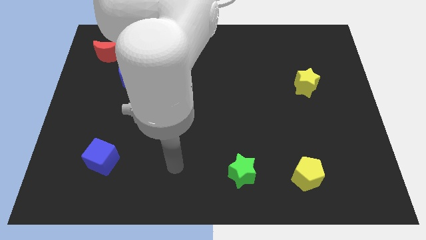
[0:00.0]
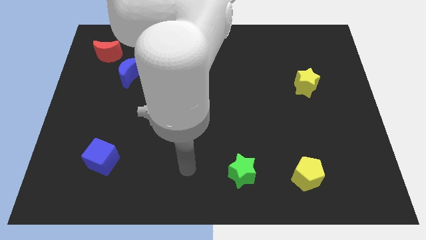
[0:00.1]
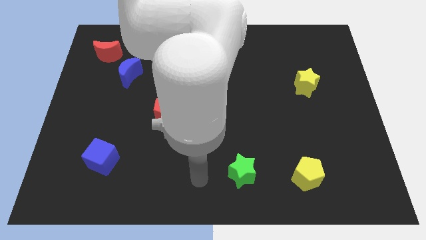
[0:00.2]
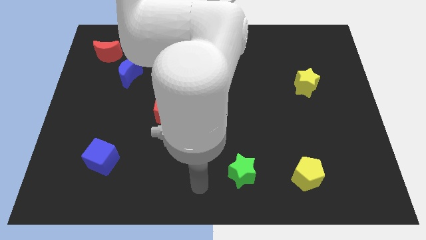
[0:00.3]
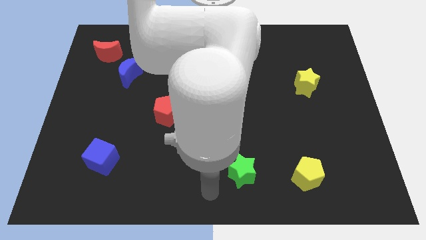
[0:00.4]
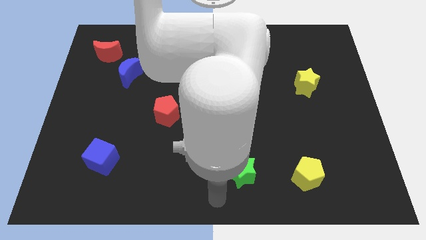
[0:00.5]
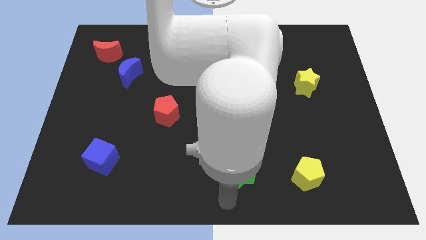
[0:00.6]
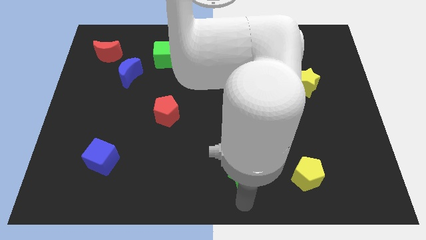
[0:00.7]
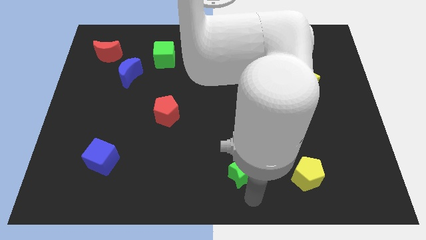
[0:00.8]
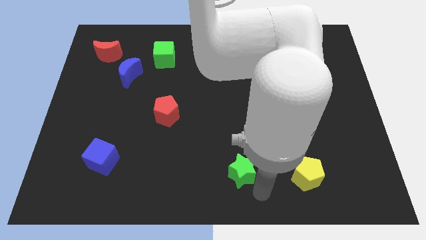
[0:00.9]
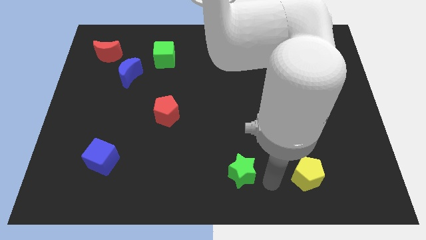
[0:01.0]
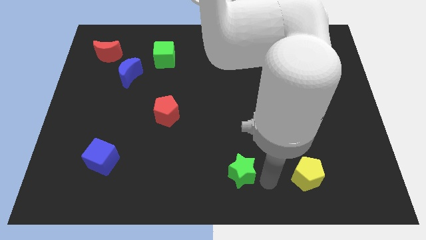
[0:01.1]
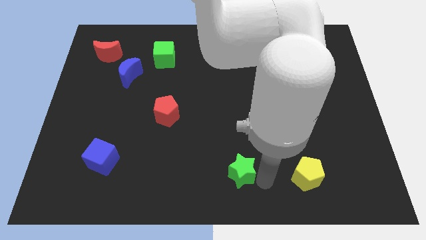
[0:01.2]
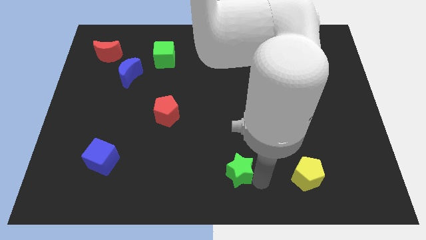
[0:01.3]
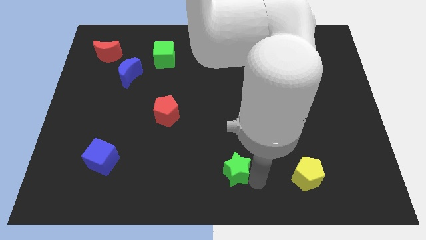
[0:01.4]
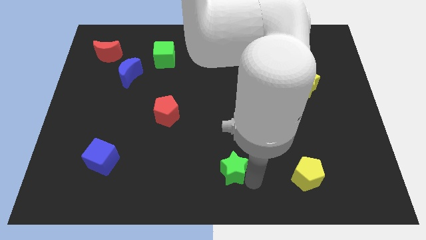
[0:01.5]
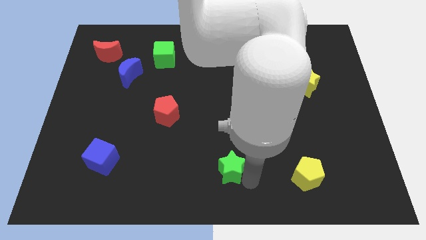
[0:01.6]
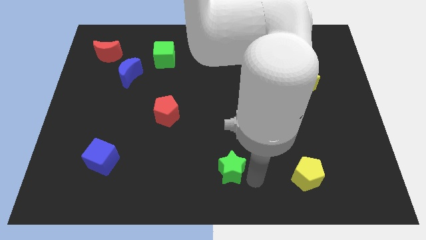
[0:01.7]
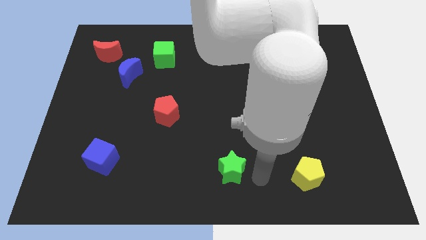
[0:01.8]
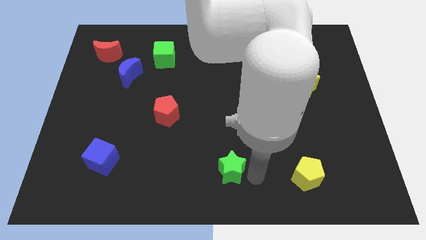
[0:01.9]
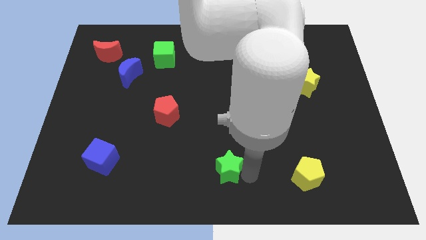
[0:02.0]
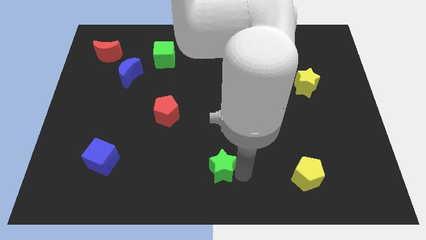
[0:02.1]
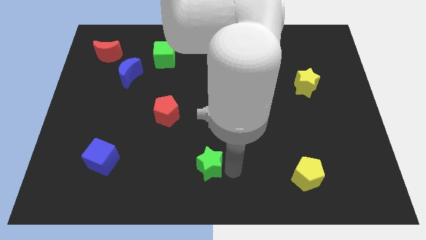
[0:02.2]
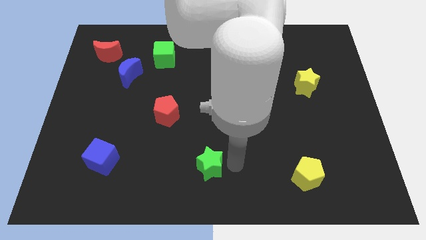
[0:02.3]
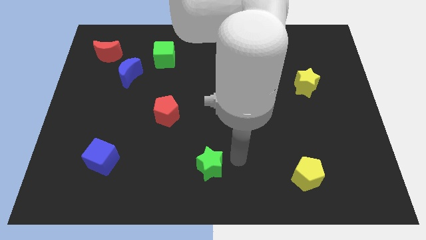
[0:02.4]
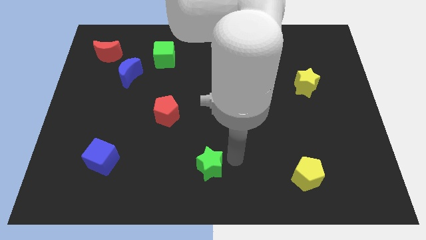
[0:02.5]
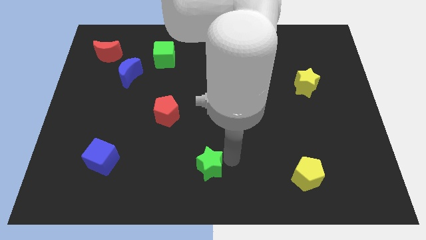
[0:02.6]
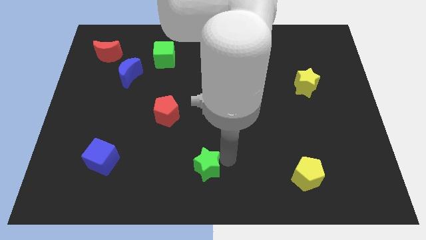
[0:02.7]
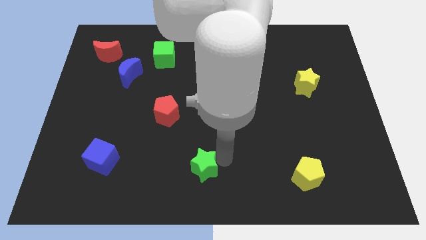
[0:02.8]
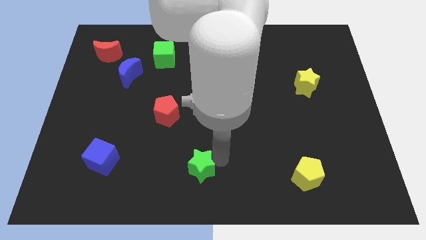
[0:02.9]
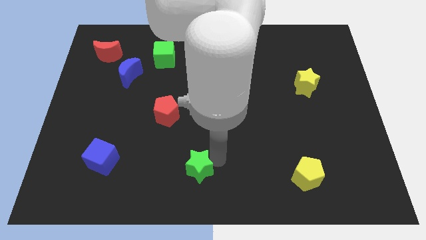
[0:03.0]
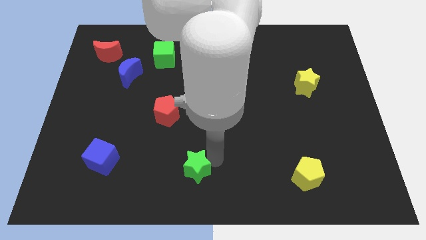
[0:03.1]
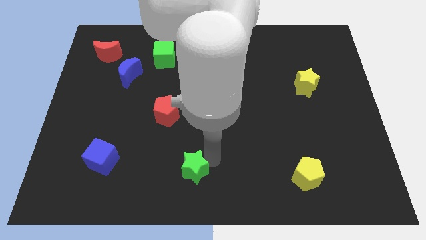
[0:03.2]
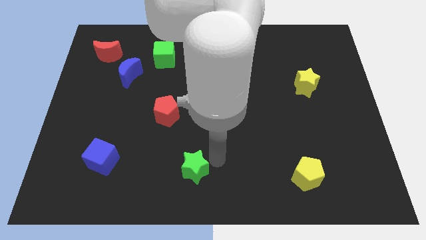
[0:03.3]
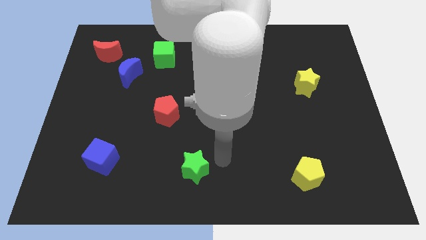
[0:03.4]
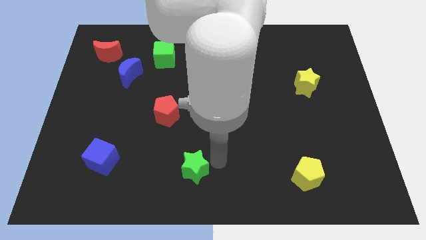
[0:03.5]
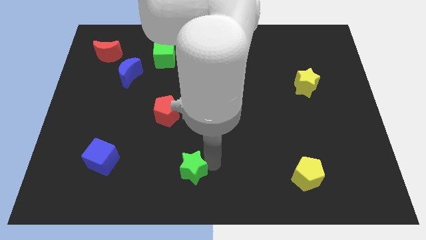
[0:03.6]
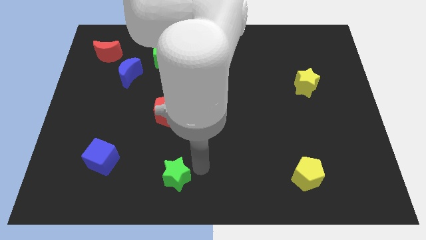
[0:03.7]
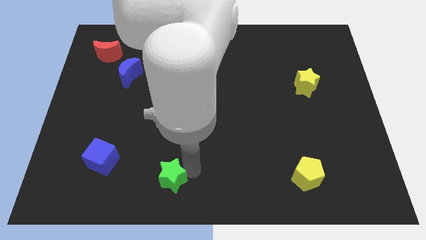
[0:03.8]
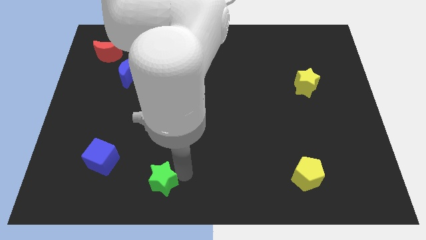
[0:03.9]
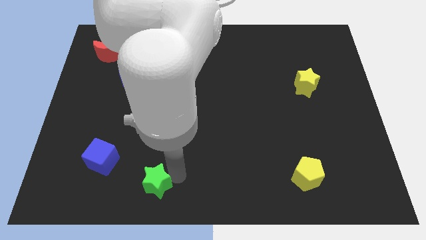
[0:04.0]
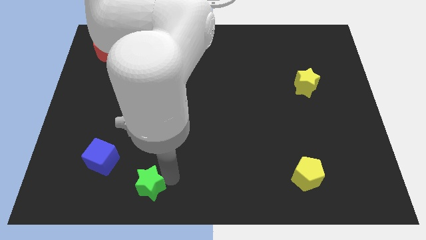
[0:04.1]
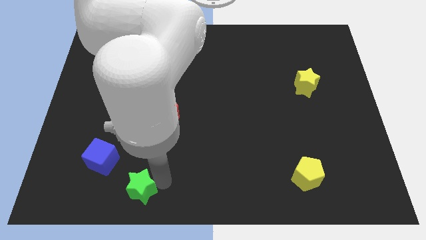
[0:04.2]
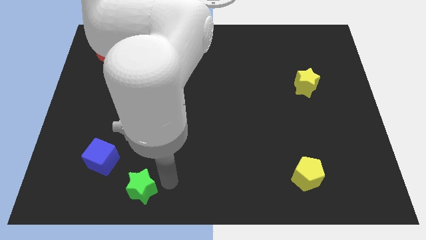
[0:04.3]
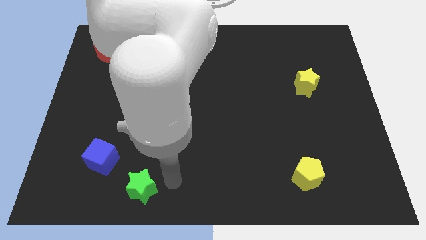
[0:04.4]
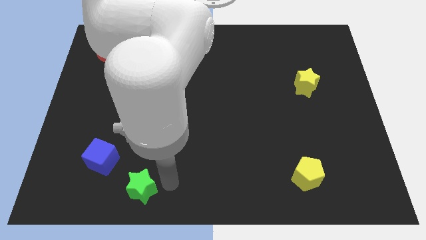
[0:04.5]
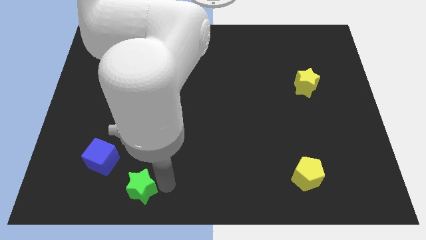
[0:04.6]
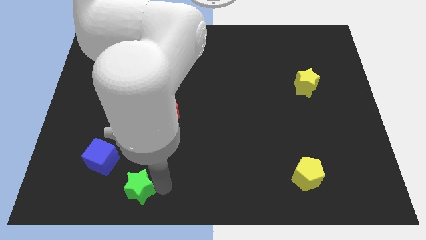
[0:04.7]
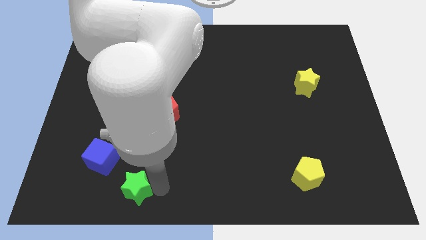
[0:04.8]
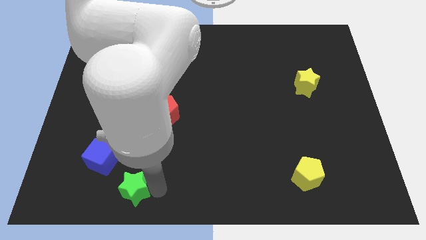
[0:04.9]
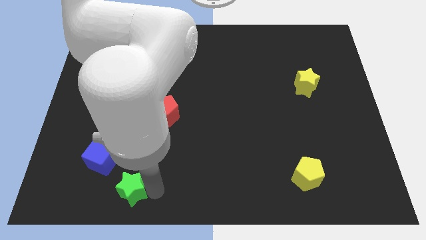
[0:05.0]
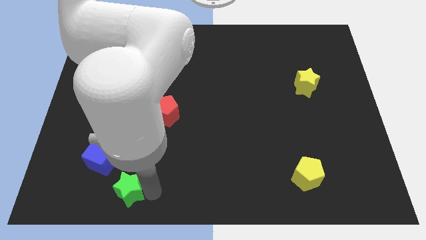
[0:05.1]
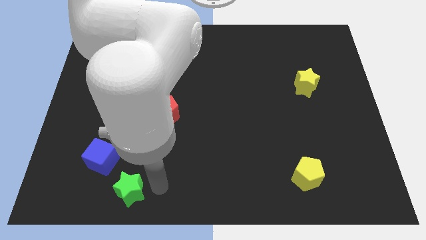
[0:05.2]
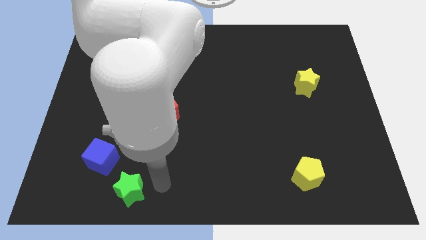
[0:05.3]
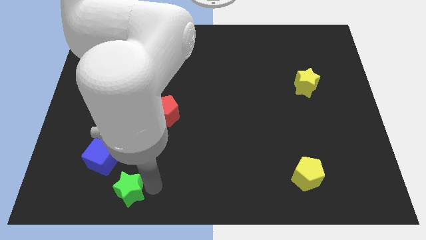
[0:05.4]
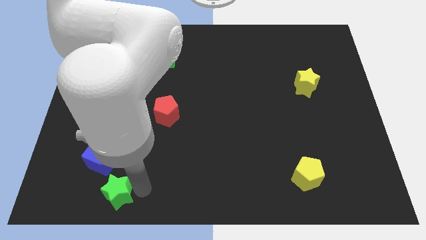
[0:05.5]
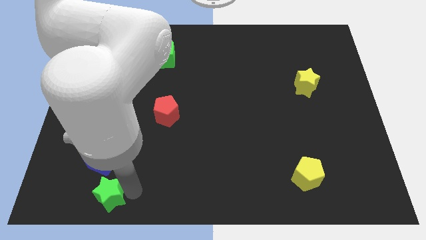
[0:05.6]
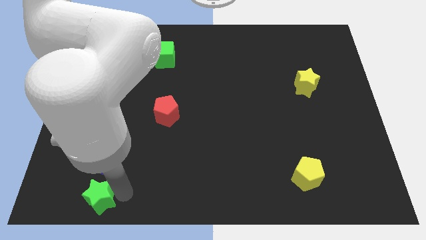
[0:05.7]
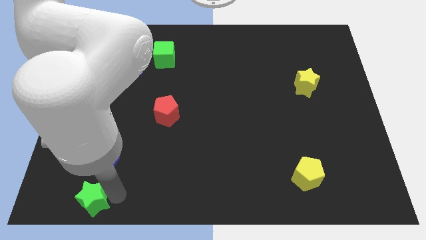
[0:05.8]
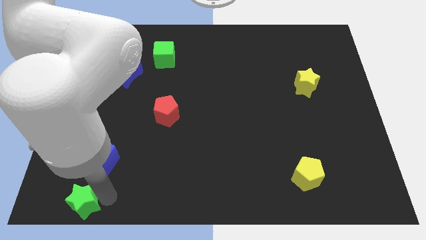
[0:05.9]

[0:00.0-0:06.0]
slide the green star to the lower left corner

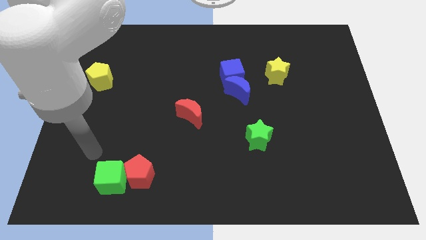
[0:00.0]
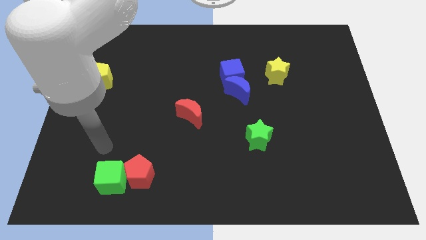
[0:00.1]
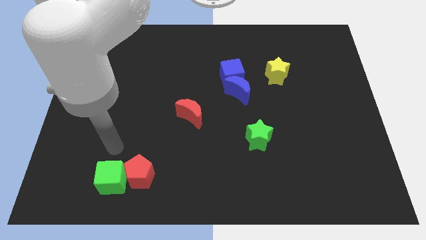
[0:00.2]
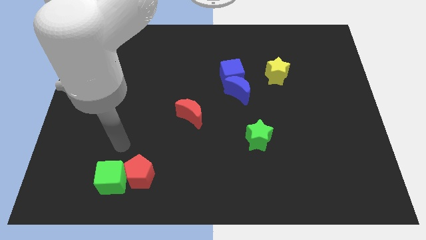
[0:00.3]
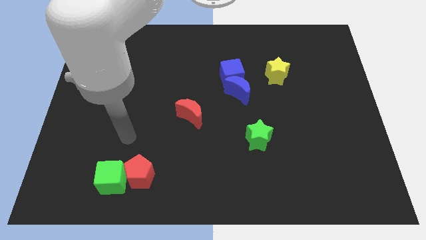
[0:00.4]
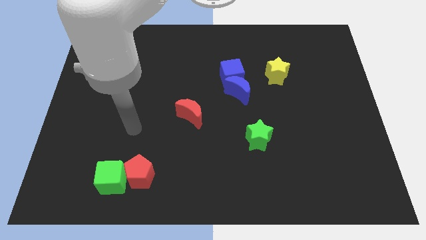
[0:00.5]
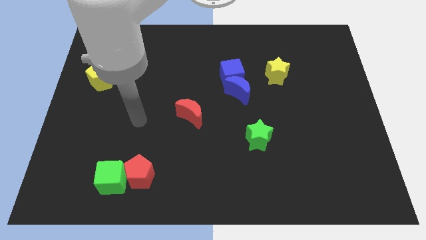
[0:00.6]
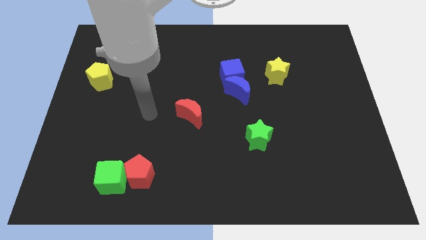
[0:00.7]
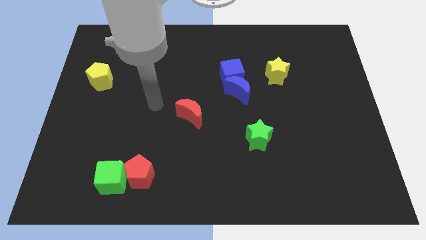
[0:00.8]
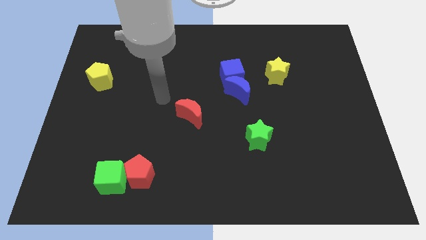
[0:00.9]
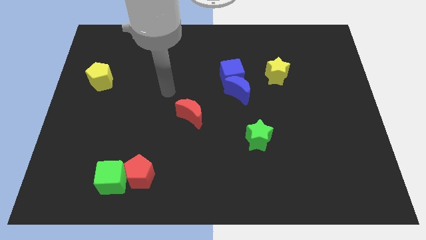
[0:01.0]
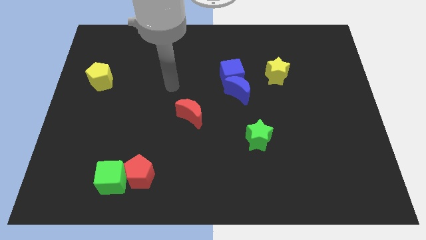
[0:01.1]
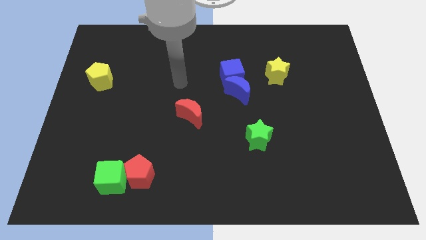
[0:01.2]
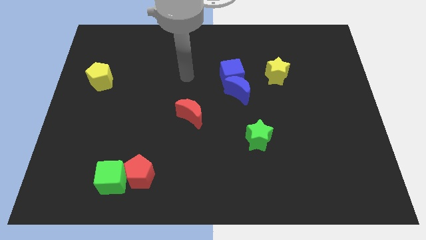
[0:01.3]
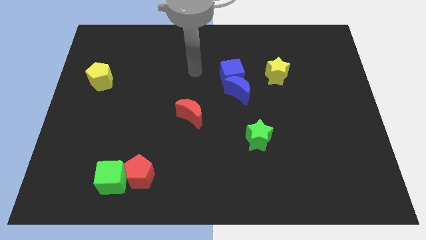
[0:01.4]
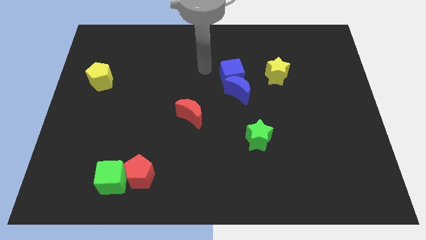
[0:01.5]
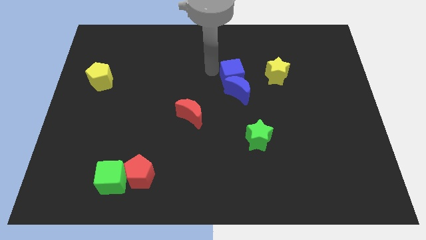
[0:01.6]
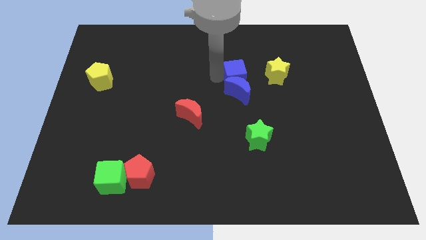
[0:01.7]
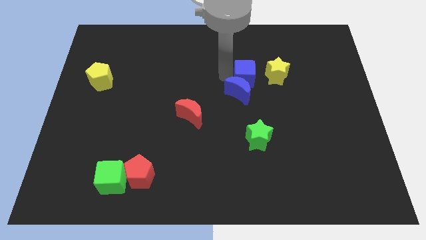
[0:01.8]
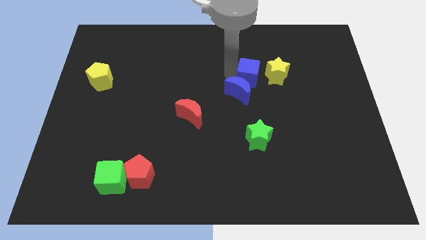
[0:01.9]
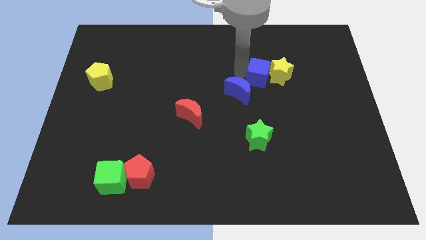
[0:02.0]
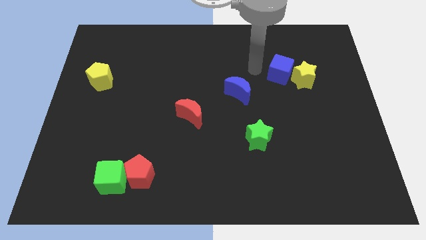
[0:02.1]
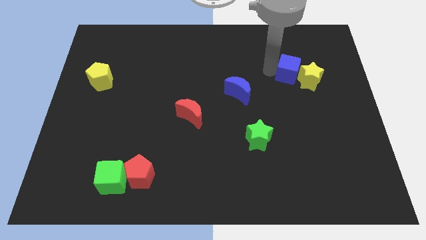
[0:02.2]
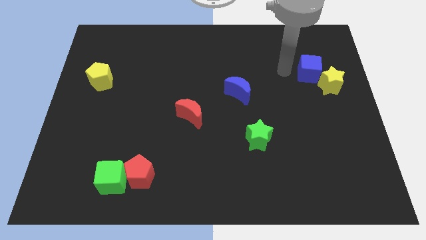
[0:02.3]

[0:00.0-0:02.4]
push the yellow star to the right side of the board
